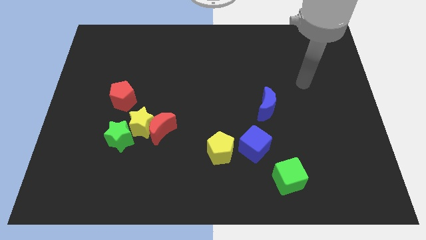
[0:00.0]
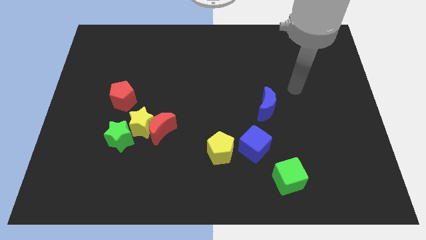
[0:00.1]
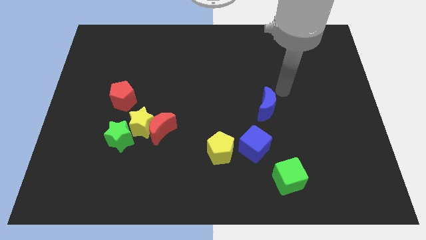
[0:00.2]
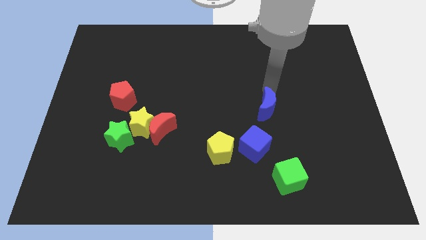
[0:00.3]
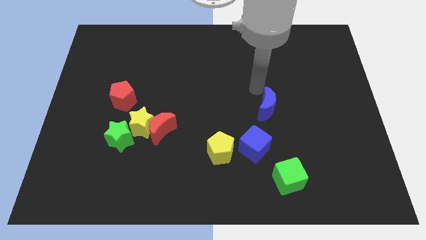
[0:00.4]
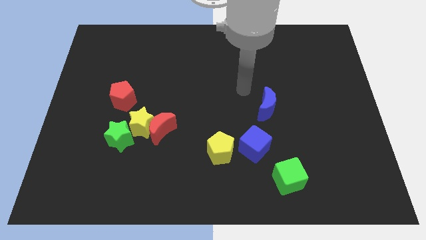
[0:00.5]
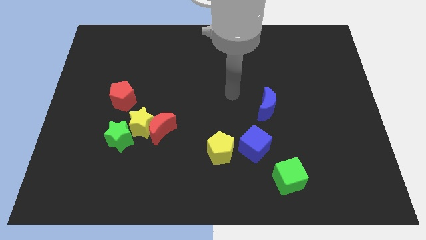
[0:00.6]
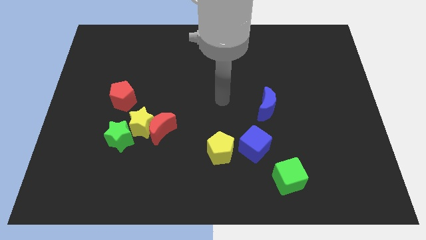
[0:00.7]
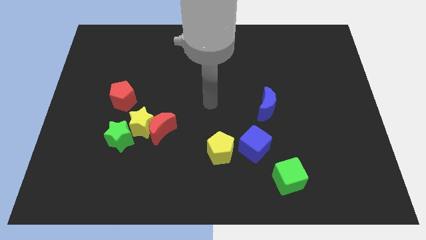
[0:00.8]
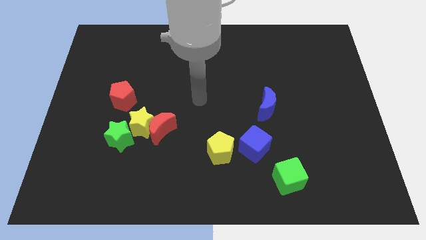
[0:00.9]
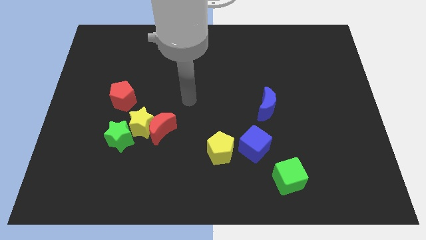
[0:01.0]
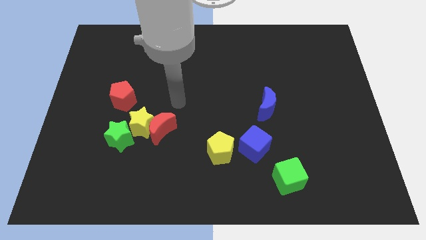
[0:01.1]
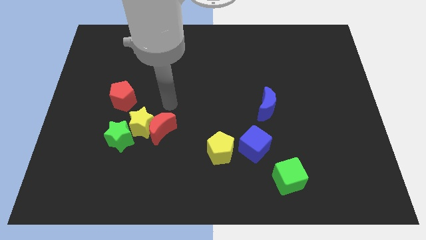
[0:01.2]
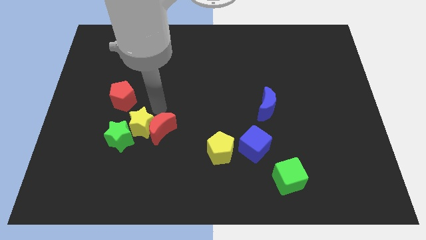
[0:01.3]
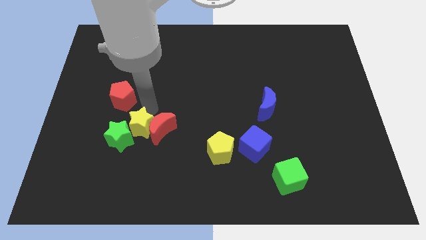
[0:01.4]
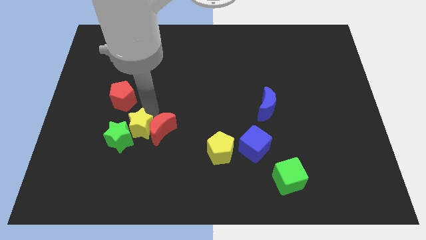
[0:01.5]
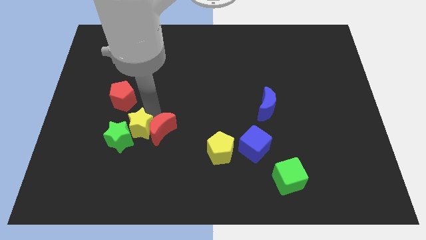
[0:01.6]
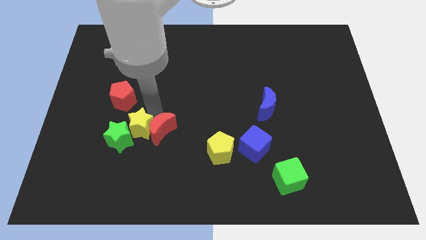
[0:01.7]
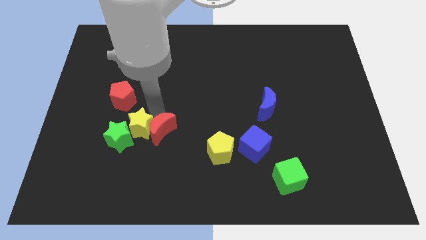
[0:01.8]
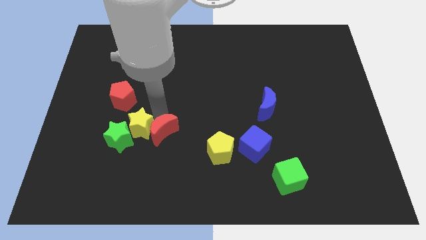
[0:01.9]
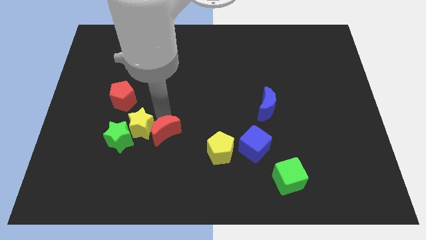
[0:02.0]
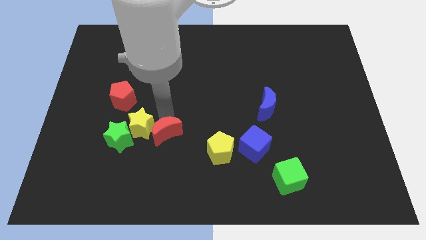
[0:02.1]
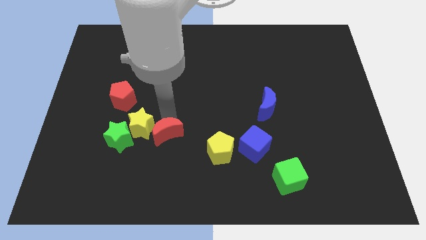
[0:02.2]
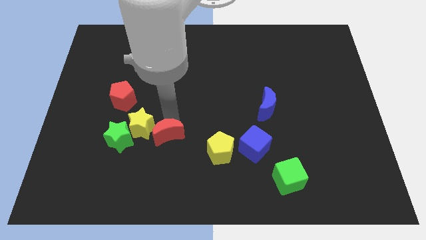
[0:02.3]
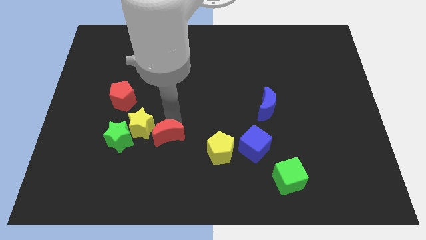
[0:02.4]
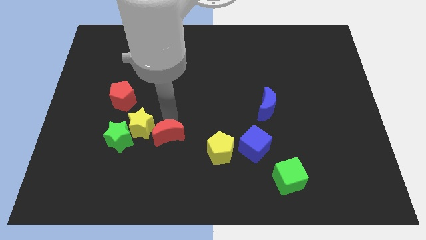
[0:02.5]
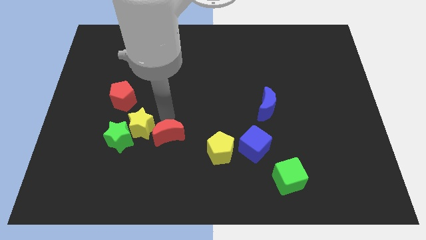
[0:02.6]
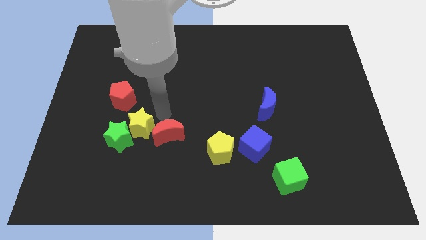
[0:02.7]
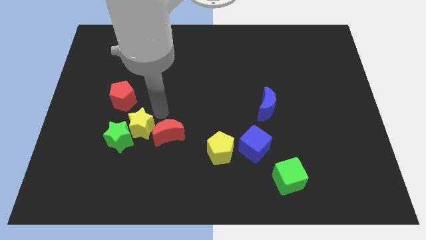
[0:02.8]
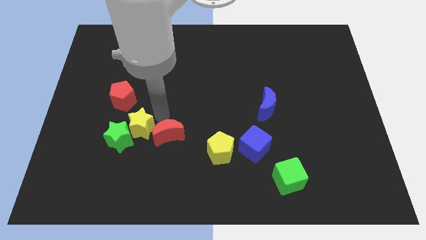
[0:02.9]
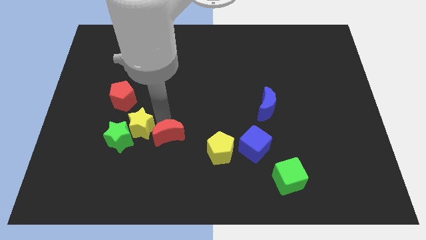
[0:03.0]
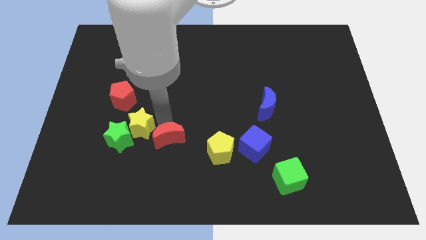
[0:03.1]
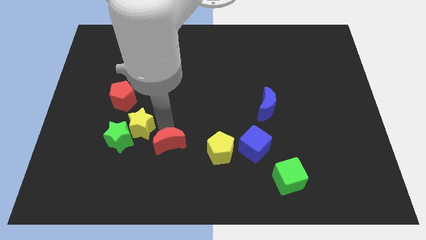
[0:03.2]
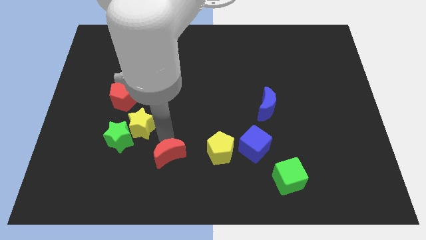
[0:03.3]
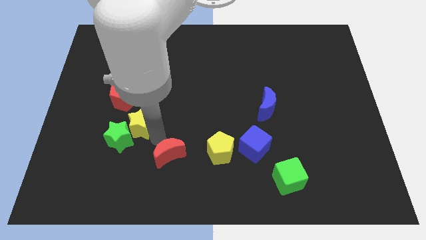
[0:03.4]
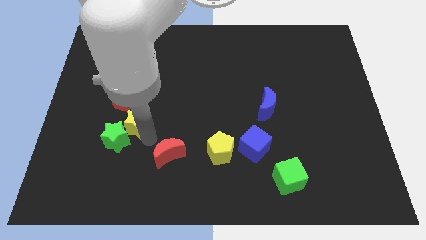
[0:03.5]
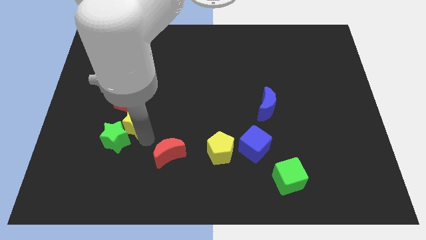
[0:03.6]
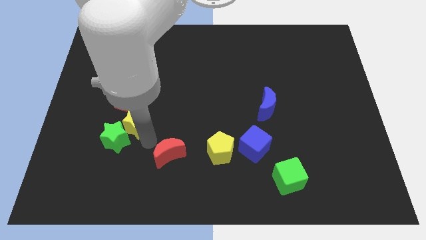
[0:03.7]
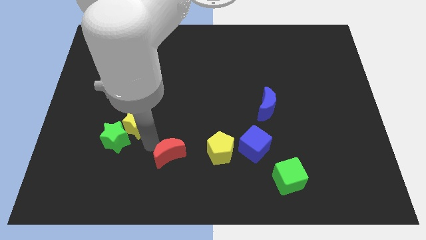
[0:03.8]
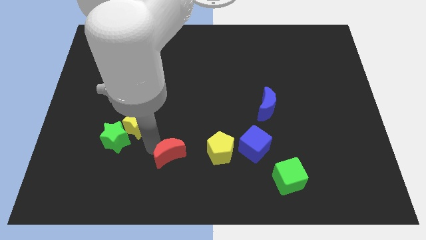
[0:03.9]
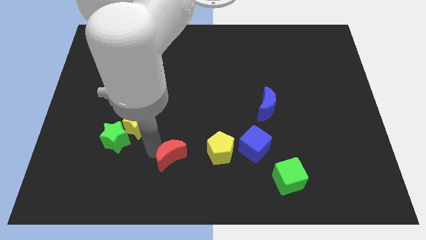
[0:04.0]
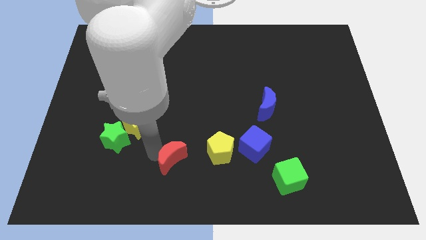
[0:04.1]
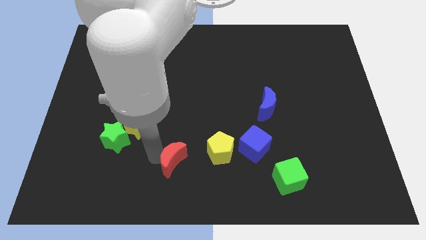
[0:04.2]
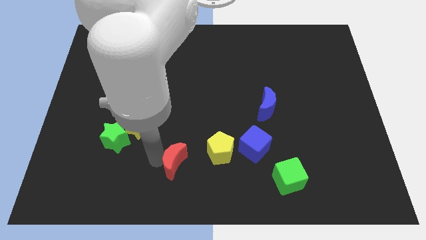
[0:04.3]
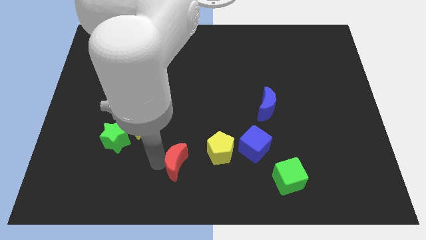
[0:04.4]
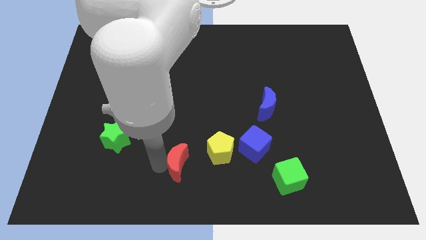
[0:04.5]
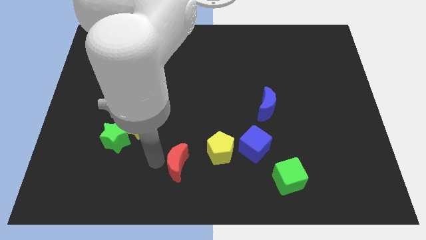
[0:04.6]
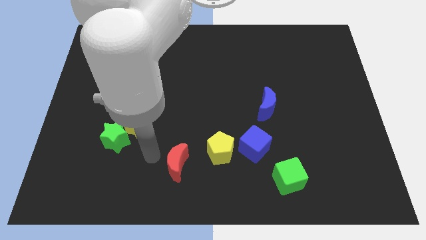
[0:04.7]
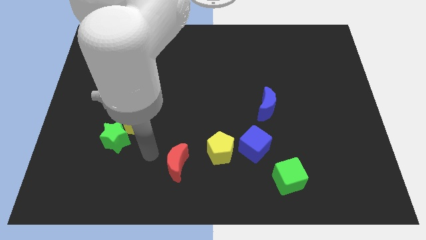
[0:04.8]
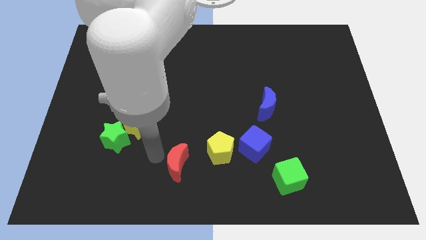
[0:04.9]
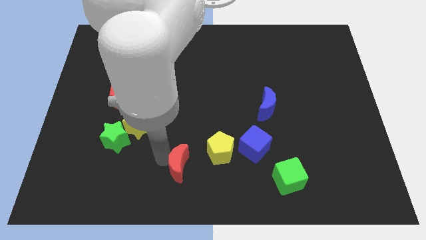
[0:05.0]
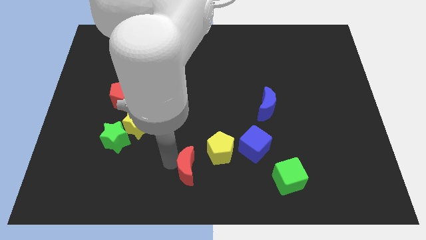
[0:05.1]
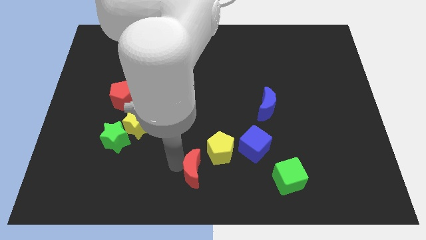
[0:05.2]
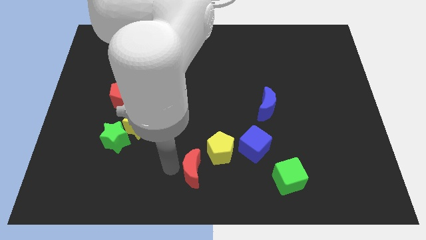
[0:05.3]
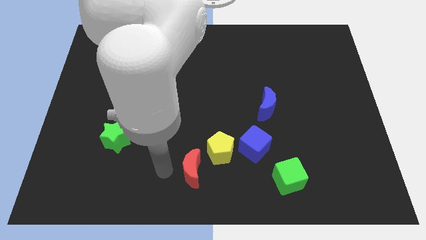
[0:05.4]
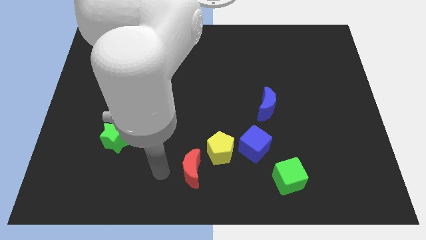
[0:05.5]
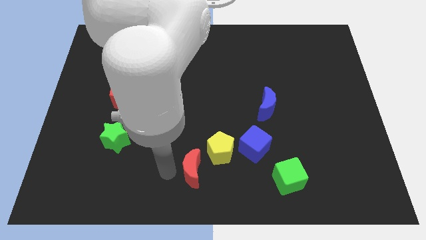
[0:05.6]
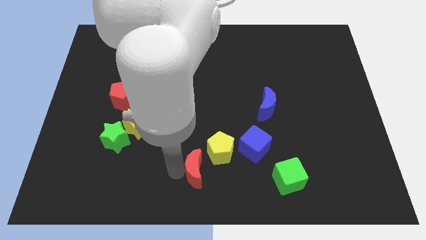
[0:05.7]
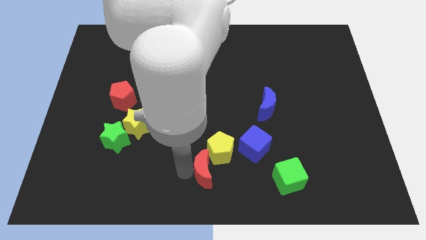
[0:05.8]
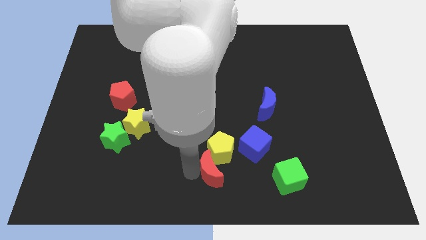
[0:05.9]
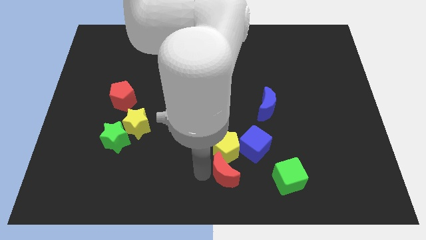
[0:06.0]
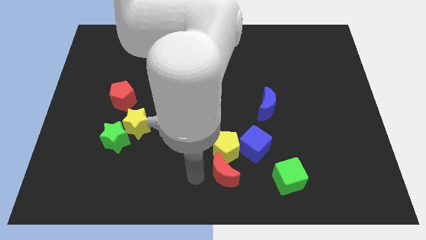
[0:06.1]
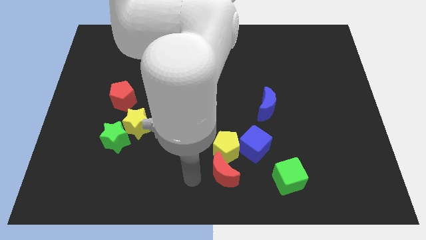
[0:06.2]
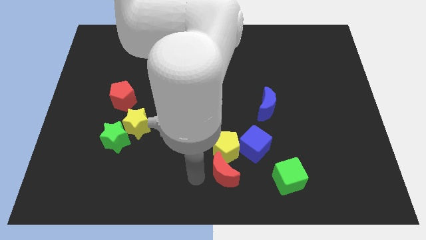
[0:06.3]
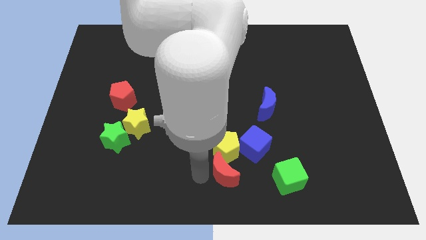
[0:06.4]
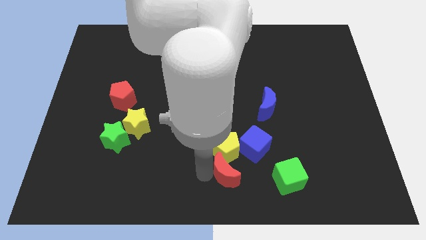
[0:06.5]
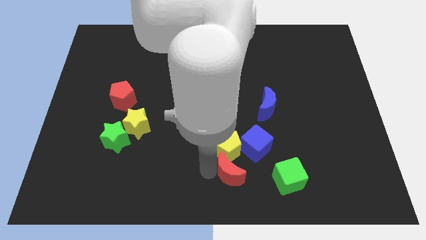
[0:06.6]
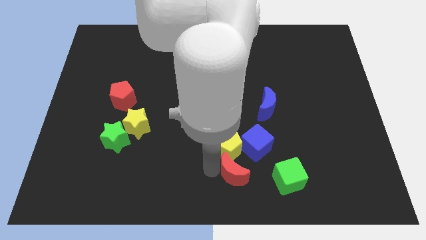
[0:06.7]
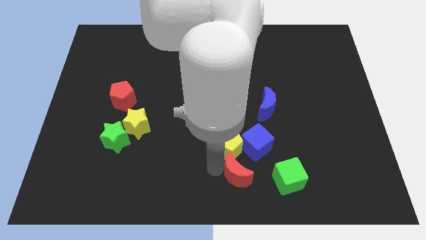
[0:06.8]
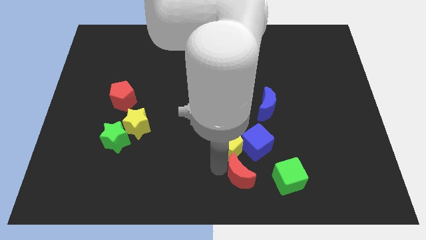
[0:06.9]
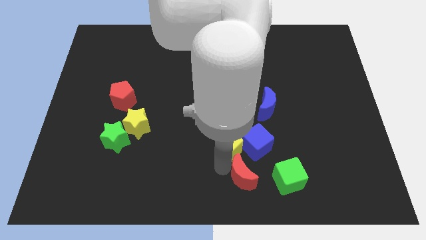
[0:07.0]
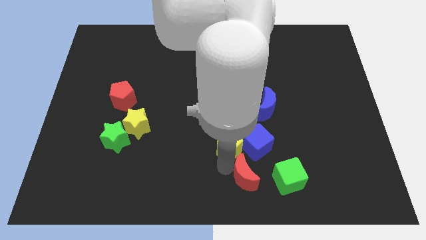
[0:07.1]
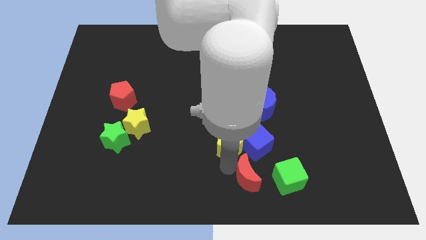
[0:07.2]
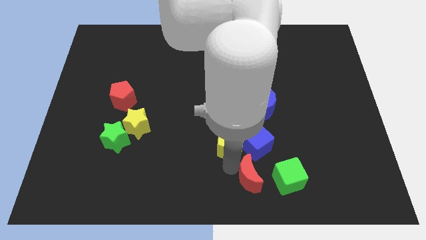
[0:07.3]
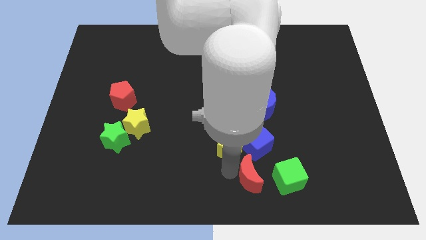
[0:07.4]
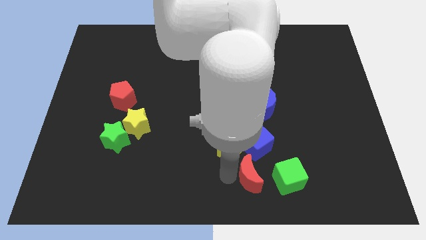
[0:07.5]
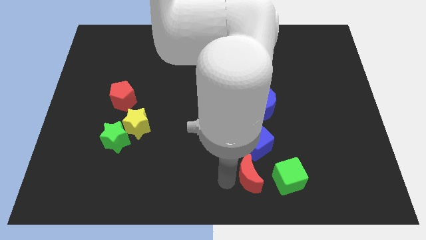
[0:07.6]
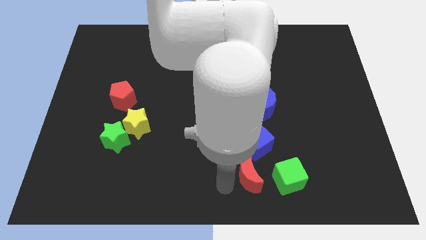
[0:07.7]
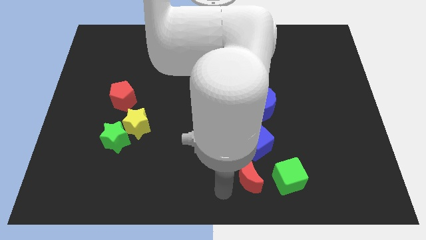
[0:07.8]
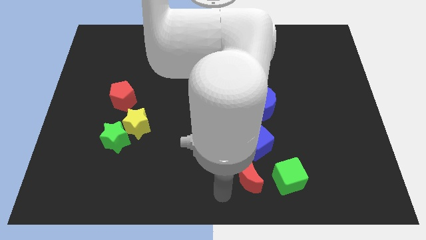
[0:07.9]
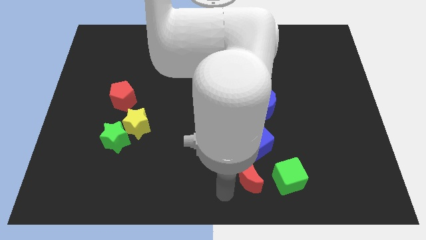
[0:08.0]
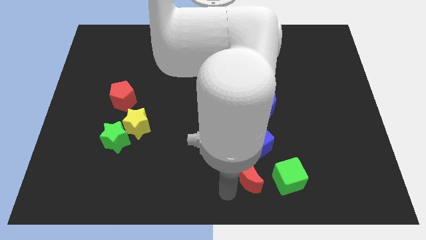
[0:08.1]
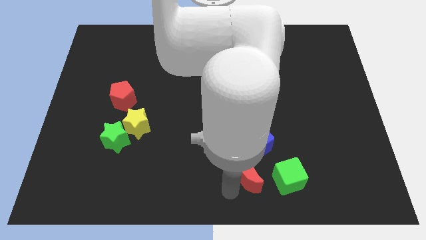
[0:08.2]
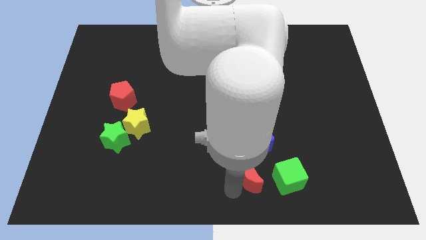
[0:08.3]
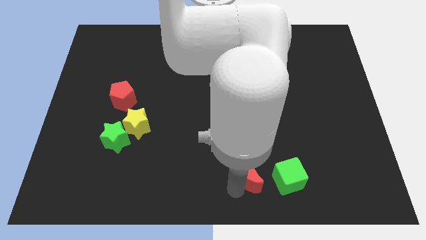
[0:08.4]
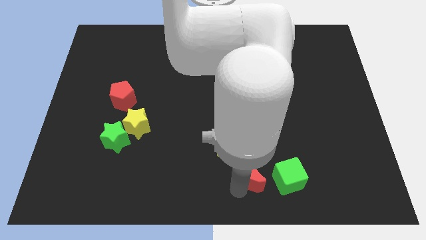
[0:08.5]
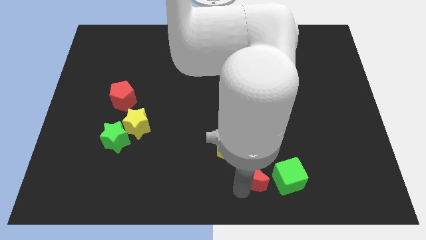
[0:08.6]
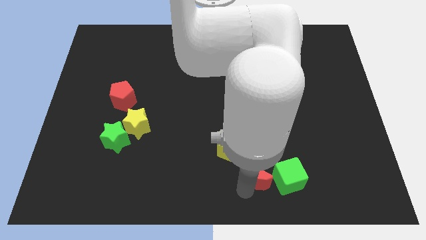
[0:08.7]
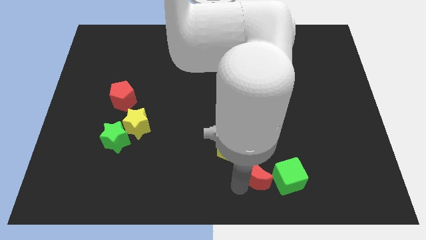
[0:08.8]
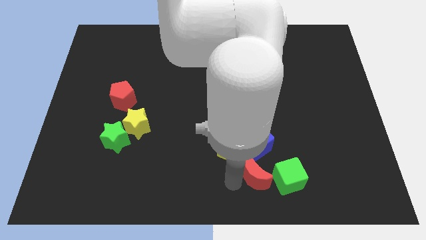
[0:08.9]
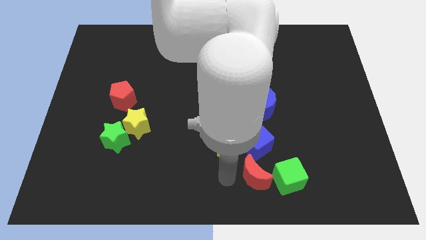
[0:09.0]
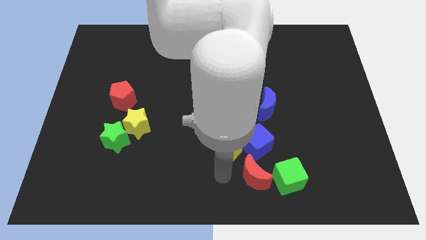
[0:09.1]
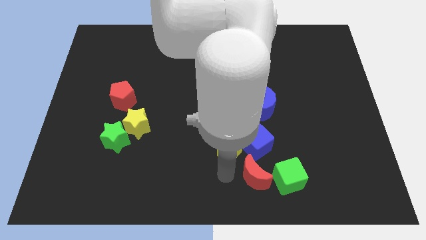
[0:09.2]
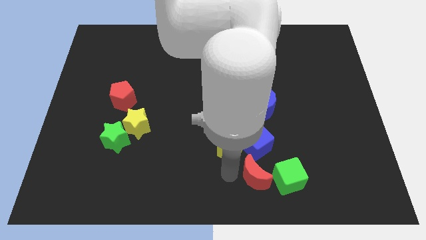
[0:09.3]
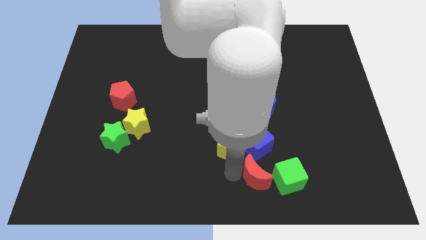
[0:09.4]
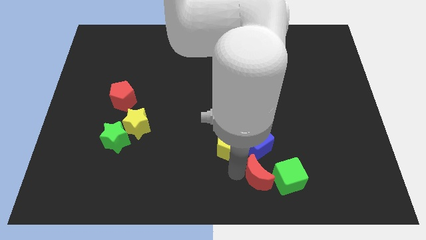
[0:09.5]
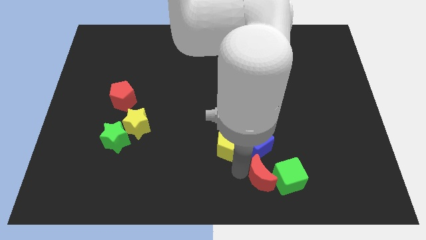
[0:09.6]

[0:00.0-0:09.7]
put the red moon to the green cube
